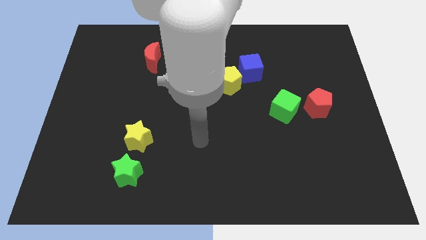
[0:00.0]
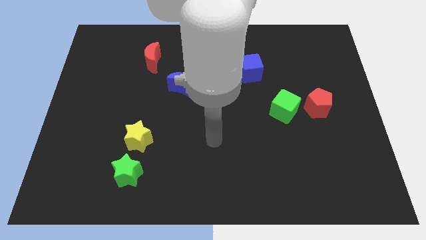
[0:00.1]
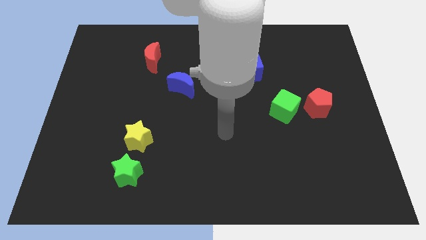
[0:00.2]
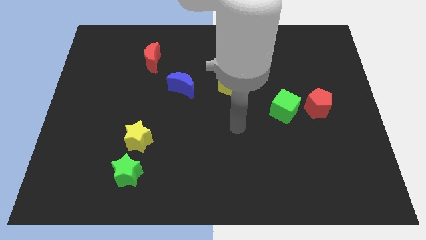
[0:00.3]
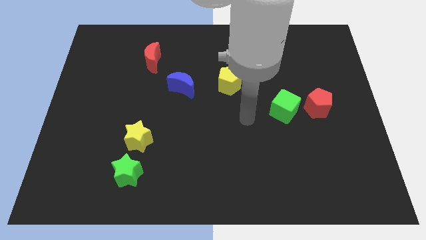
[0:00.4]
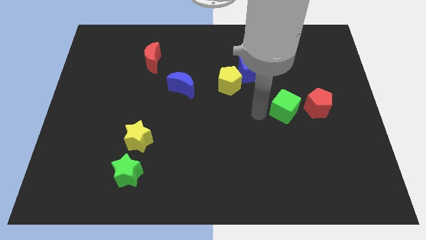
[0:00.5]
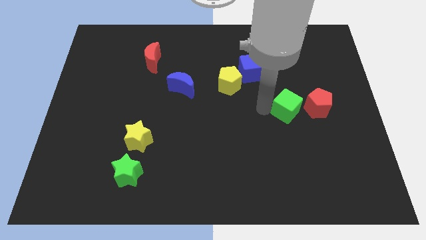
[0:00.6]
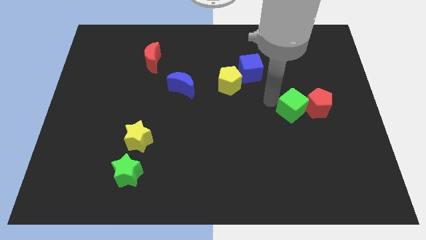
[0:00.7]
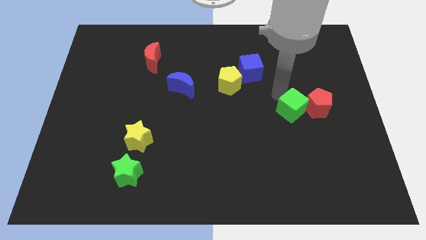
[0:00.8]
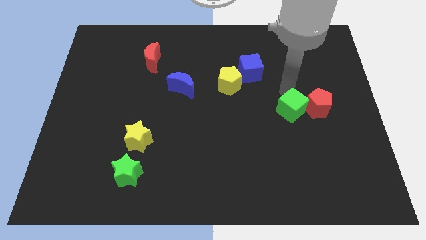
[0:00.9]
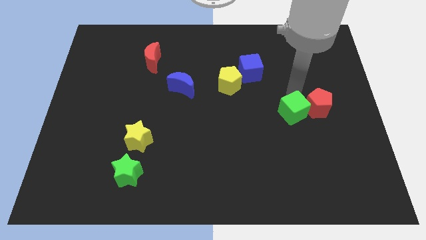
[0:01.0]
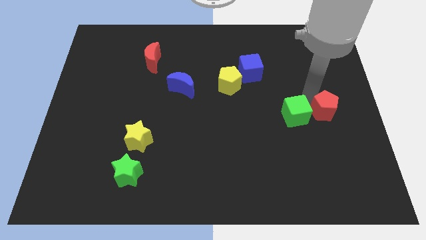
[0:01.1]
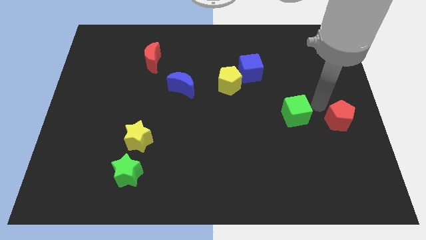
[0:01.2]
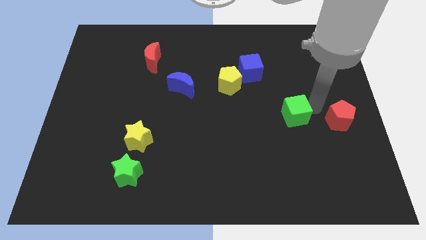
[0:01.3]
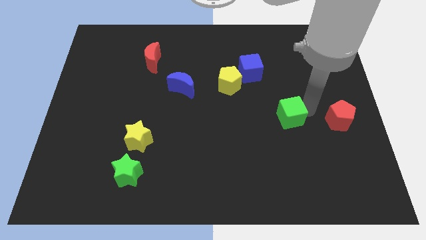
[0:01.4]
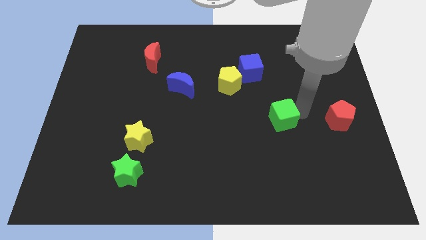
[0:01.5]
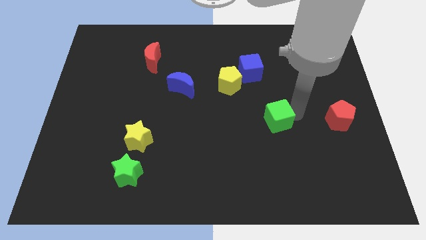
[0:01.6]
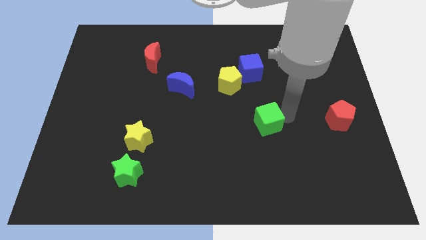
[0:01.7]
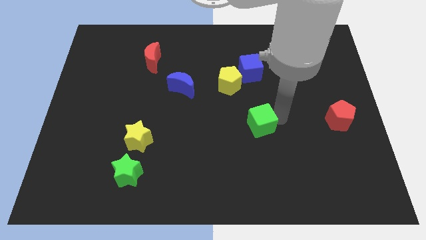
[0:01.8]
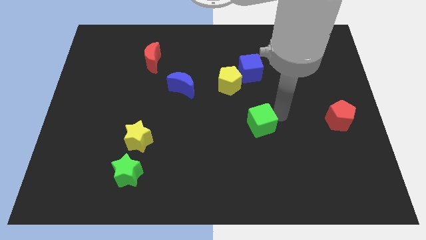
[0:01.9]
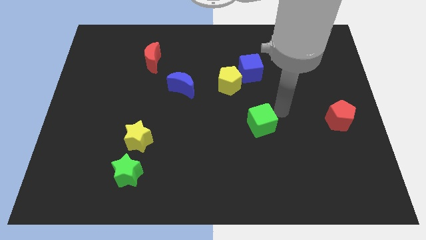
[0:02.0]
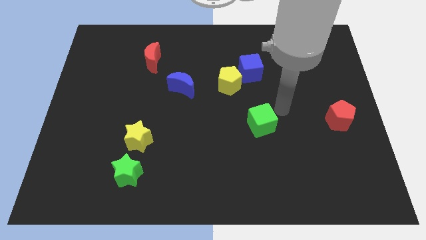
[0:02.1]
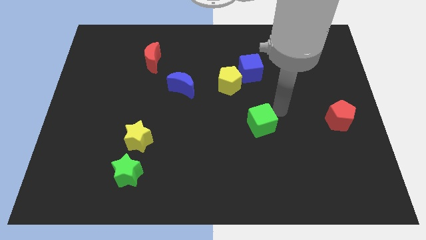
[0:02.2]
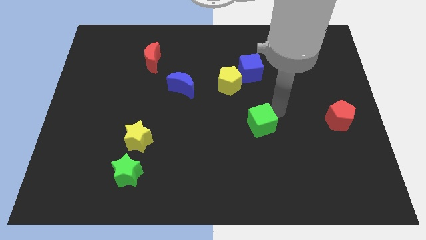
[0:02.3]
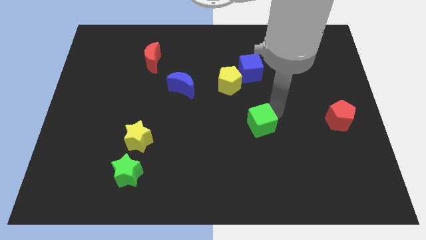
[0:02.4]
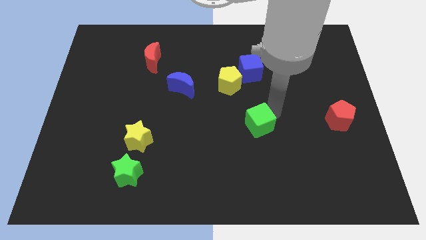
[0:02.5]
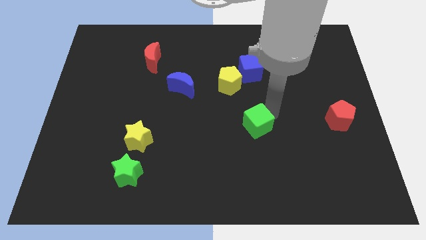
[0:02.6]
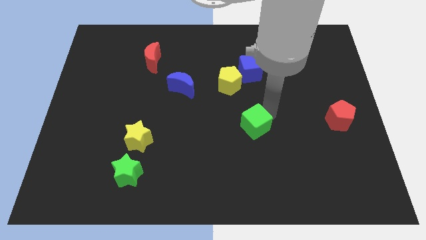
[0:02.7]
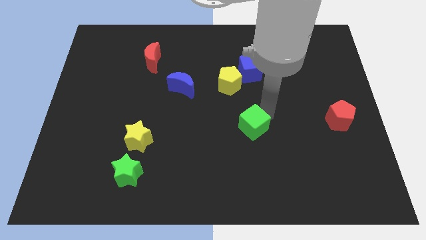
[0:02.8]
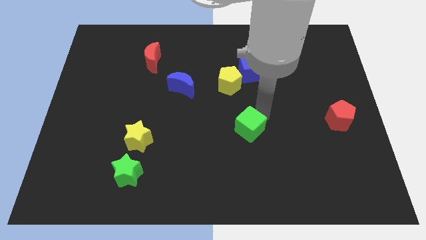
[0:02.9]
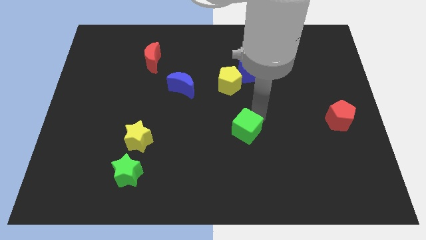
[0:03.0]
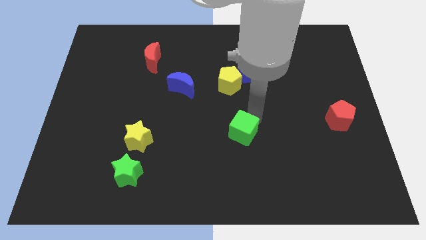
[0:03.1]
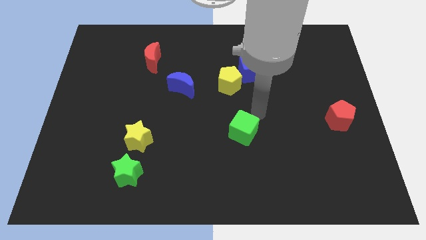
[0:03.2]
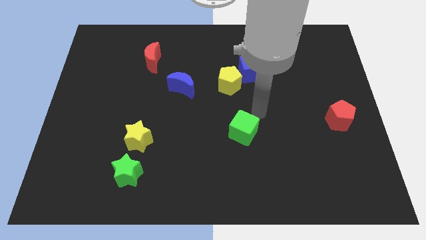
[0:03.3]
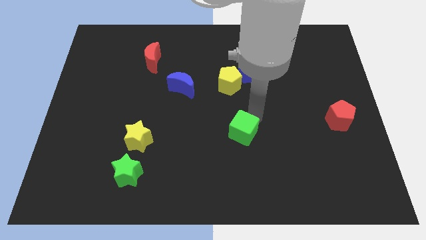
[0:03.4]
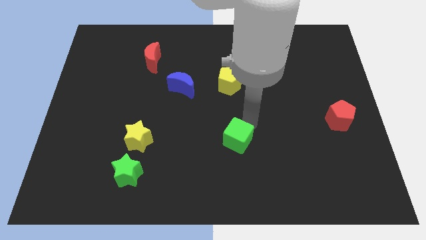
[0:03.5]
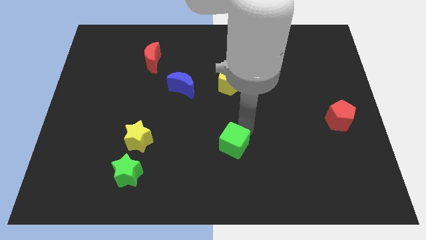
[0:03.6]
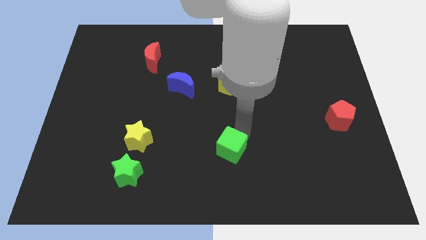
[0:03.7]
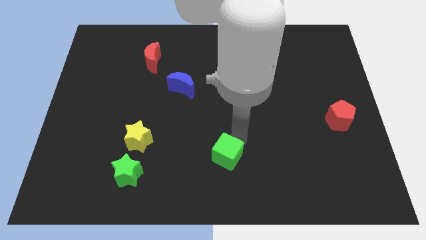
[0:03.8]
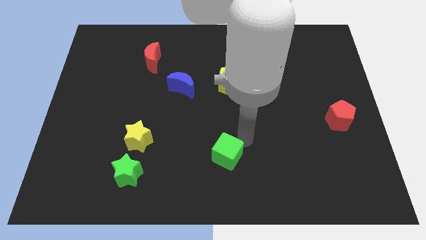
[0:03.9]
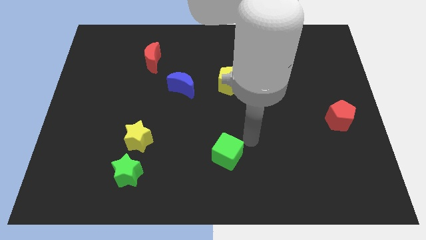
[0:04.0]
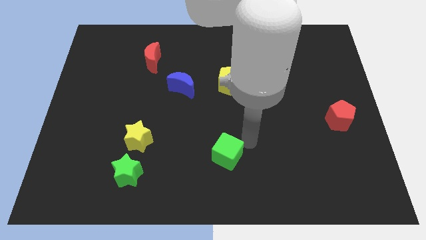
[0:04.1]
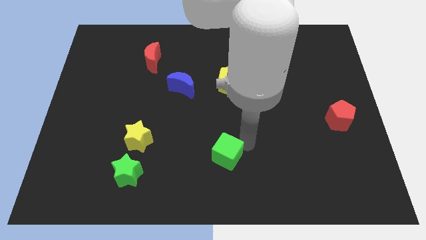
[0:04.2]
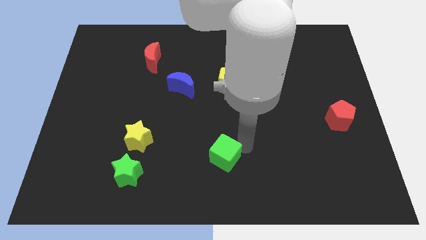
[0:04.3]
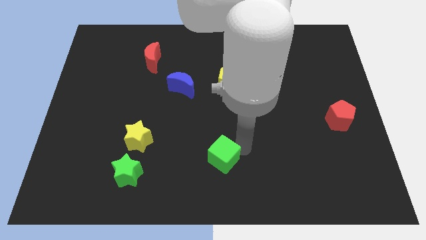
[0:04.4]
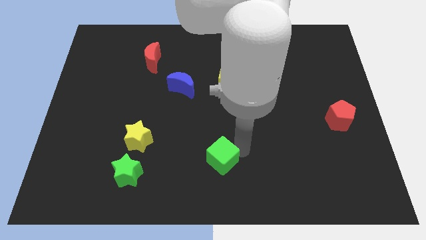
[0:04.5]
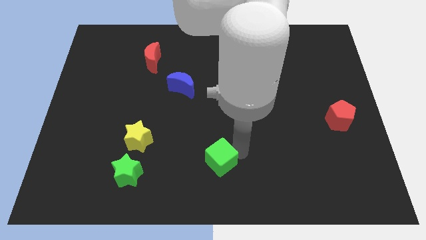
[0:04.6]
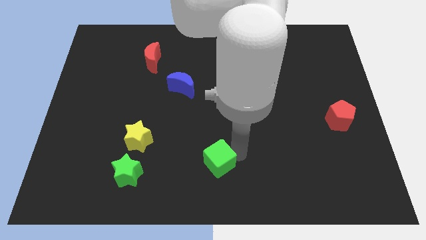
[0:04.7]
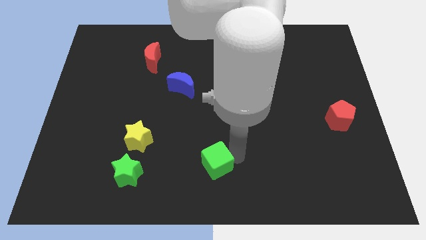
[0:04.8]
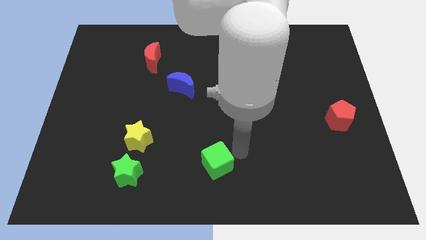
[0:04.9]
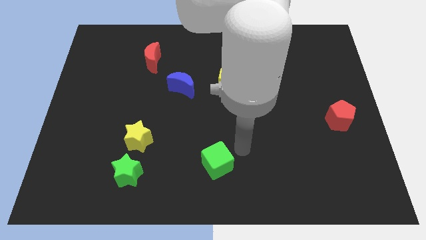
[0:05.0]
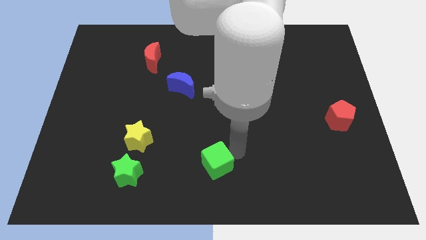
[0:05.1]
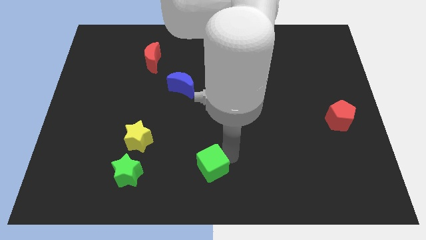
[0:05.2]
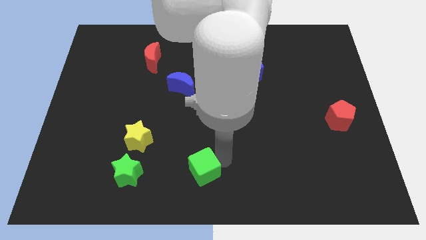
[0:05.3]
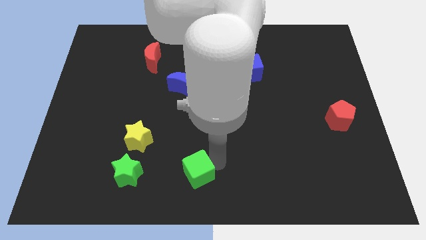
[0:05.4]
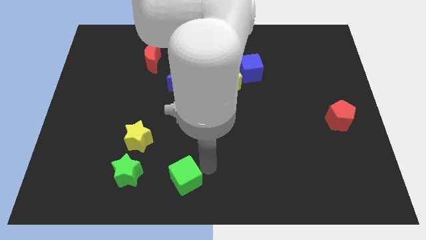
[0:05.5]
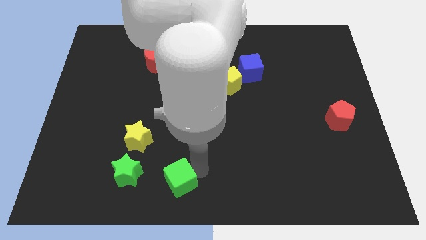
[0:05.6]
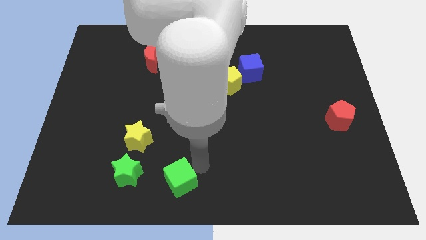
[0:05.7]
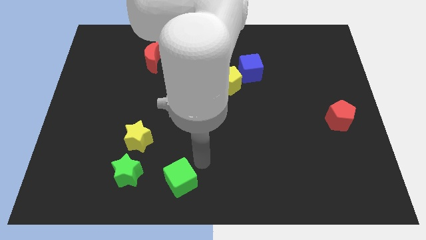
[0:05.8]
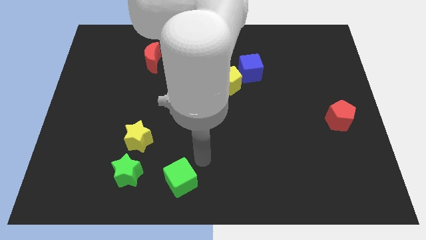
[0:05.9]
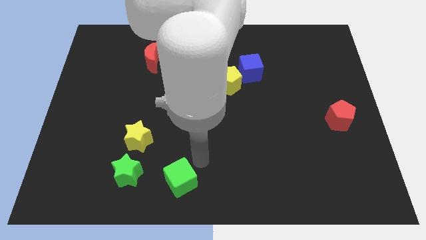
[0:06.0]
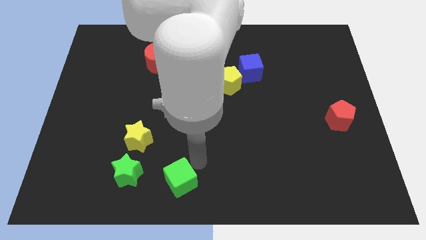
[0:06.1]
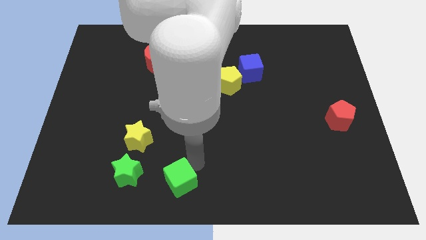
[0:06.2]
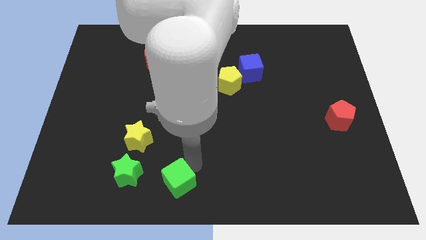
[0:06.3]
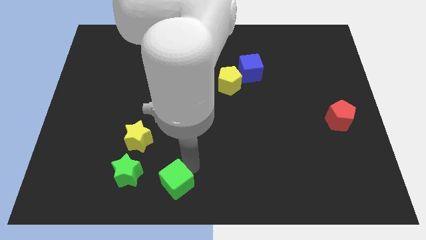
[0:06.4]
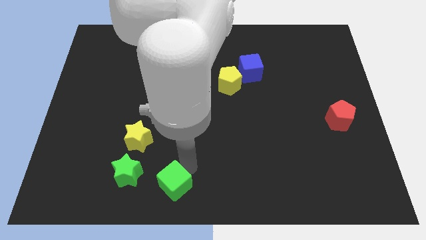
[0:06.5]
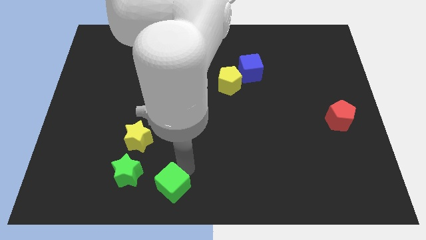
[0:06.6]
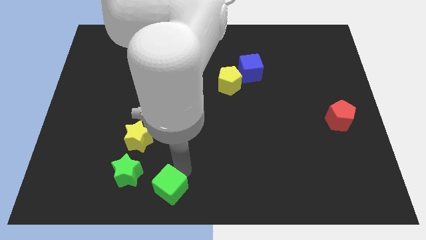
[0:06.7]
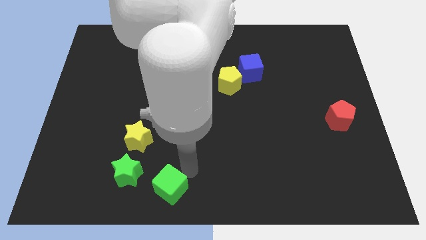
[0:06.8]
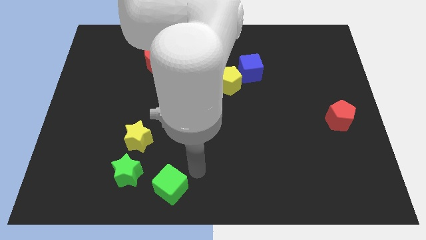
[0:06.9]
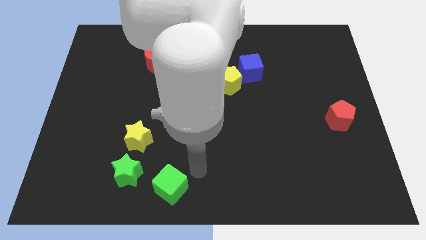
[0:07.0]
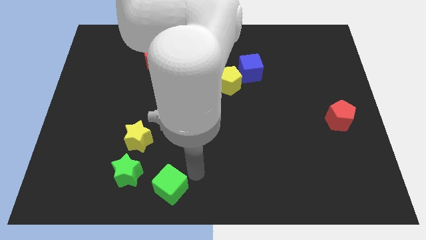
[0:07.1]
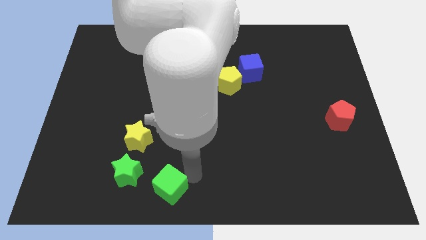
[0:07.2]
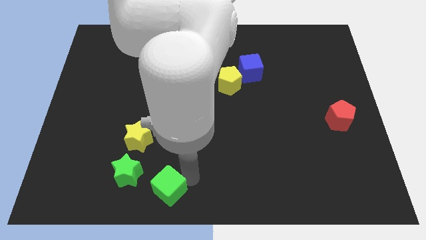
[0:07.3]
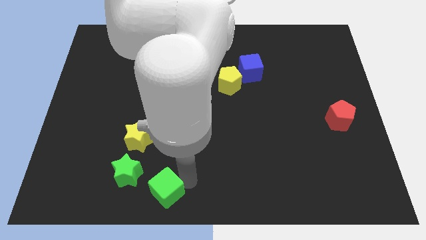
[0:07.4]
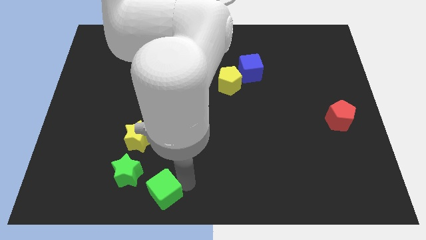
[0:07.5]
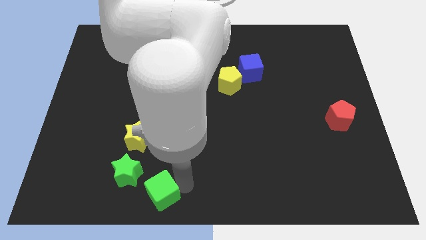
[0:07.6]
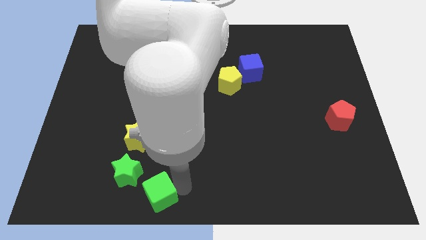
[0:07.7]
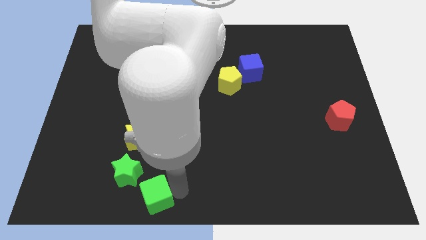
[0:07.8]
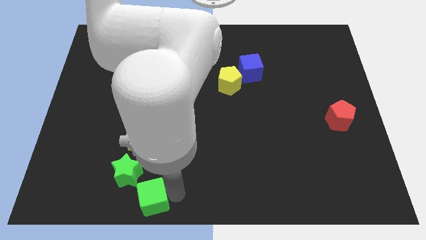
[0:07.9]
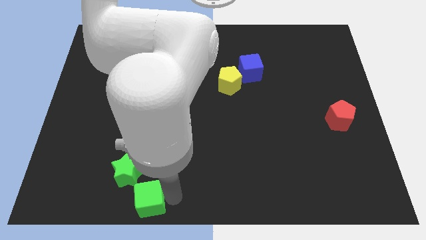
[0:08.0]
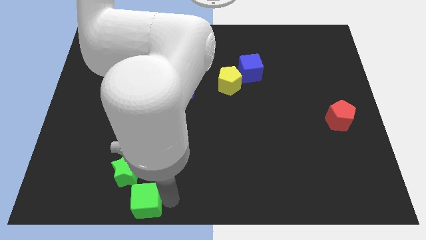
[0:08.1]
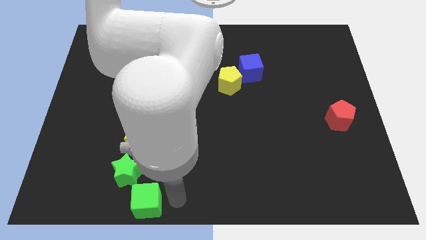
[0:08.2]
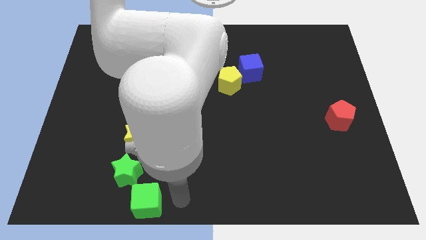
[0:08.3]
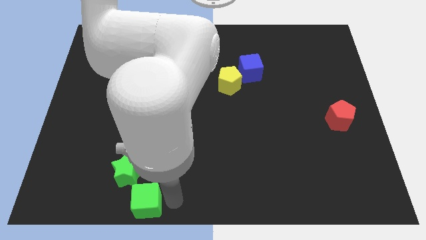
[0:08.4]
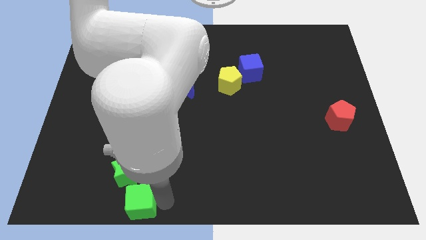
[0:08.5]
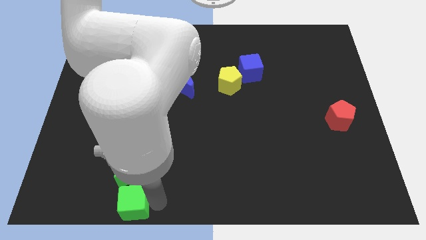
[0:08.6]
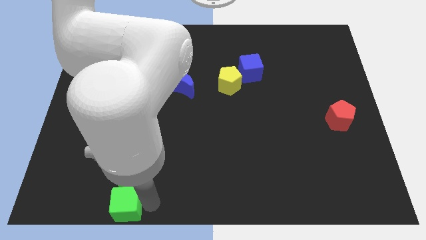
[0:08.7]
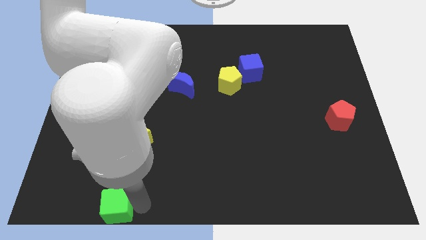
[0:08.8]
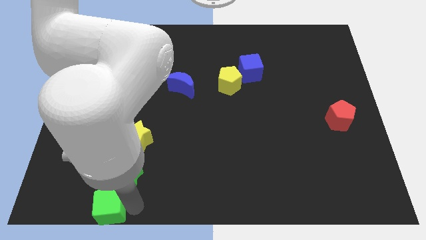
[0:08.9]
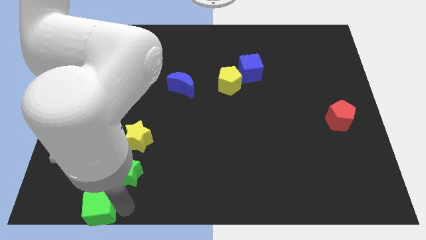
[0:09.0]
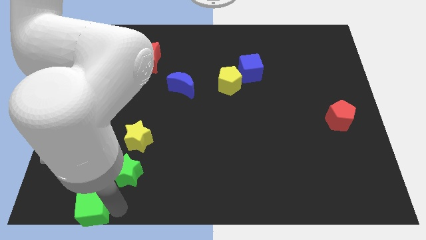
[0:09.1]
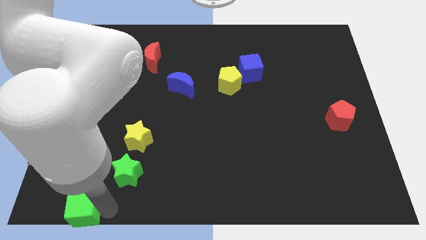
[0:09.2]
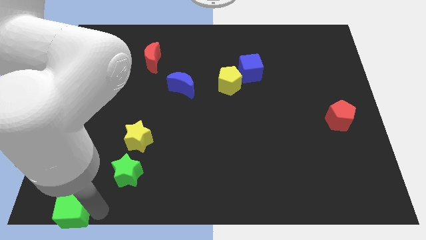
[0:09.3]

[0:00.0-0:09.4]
push the green cube to the bottom left of the board
